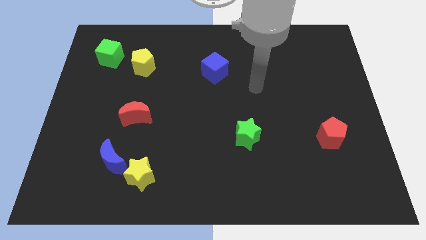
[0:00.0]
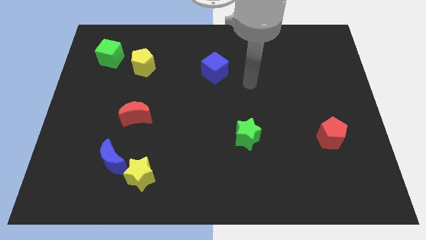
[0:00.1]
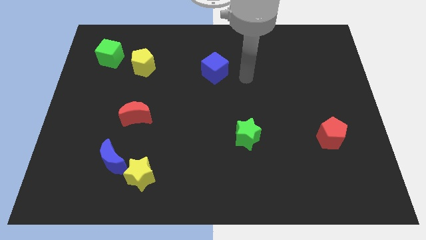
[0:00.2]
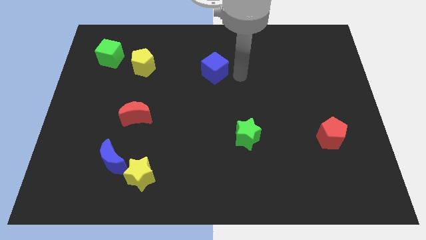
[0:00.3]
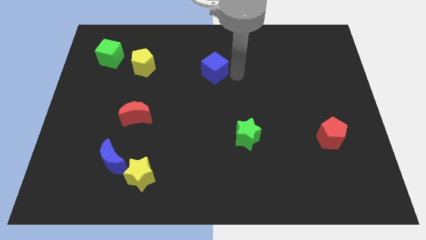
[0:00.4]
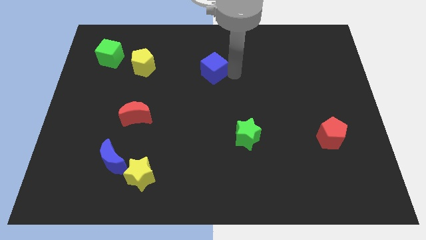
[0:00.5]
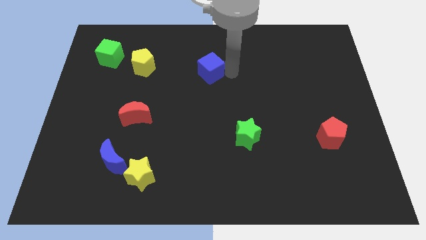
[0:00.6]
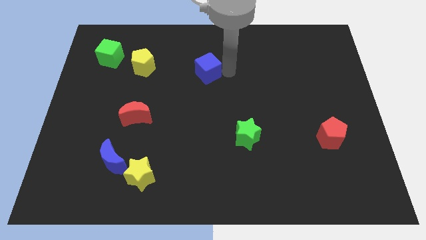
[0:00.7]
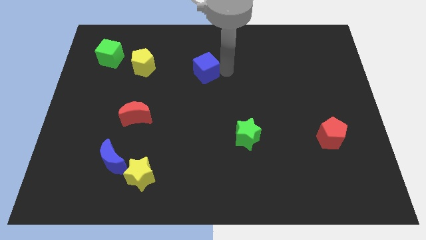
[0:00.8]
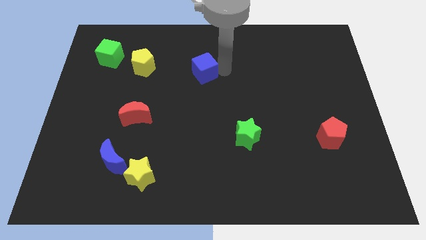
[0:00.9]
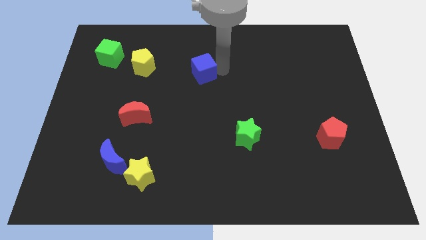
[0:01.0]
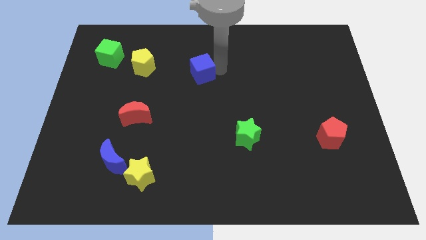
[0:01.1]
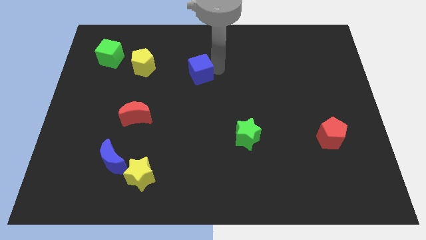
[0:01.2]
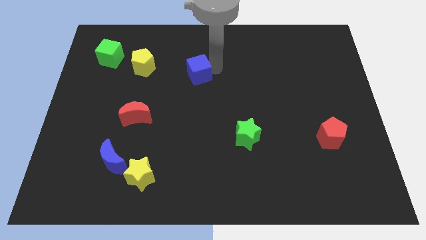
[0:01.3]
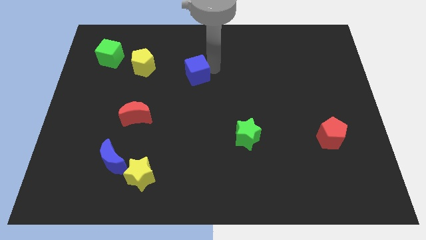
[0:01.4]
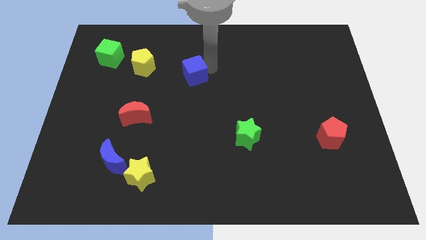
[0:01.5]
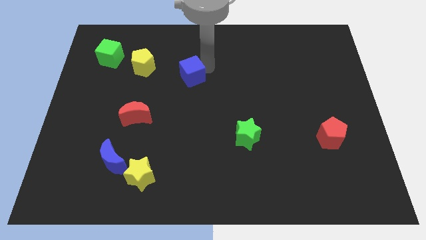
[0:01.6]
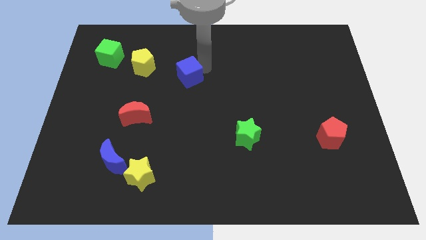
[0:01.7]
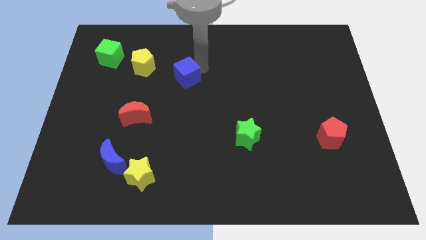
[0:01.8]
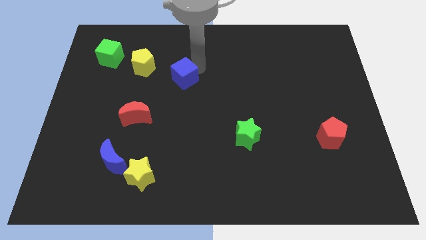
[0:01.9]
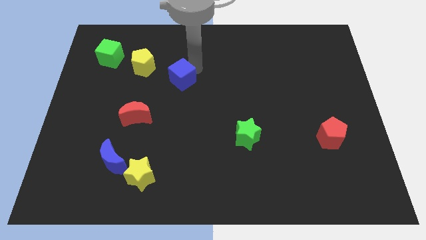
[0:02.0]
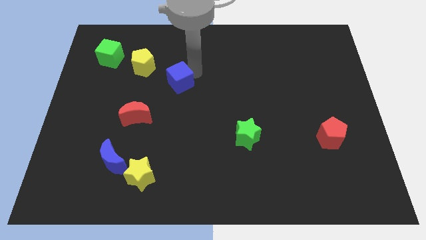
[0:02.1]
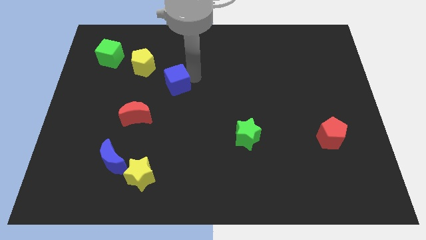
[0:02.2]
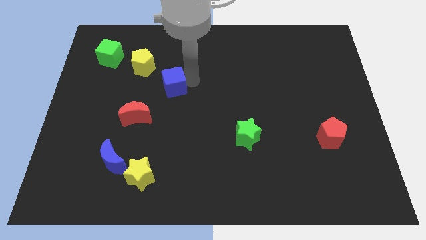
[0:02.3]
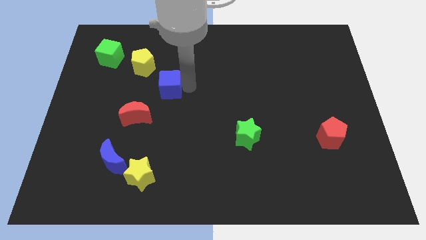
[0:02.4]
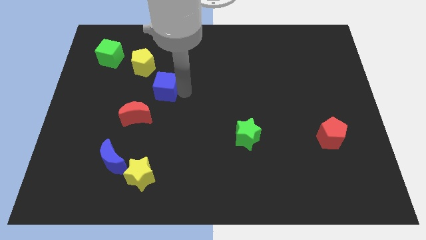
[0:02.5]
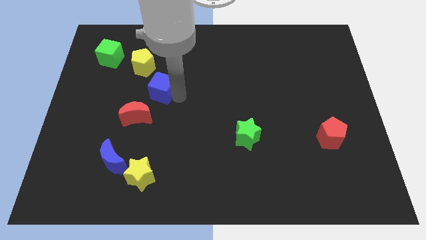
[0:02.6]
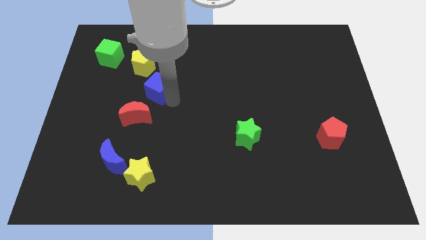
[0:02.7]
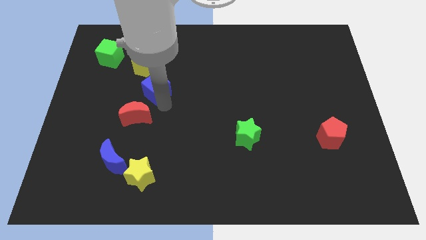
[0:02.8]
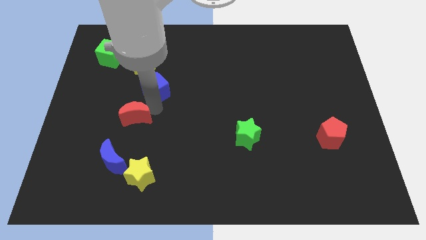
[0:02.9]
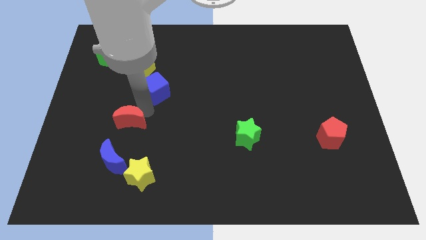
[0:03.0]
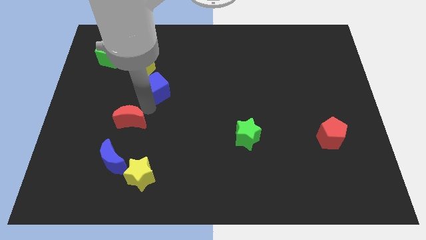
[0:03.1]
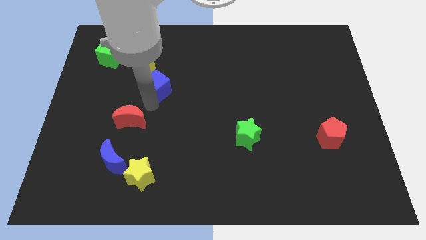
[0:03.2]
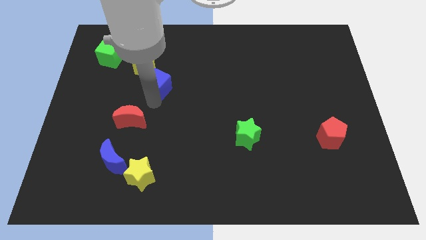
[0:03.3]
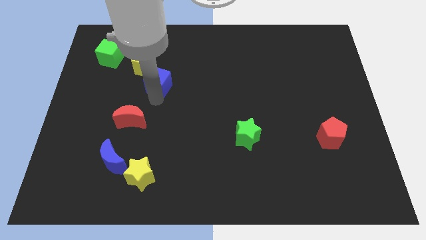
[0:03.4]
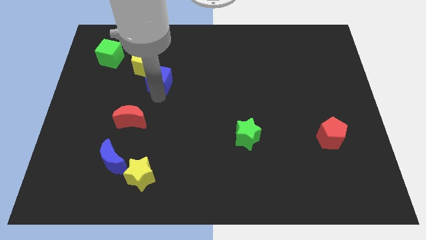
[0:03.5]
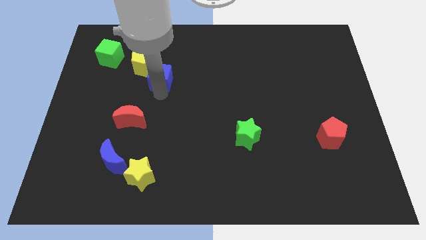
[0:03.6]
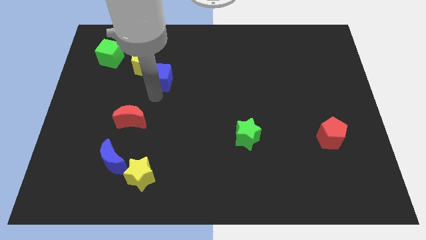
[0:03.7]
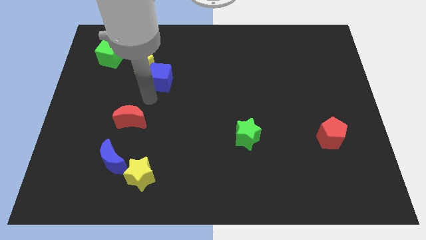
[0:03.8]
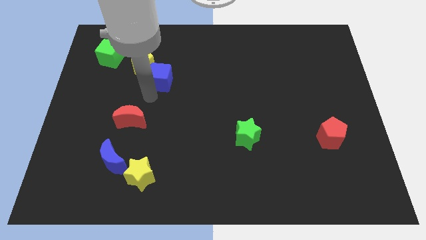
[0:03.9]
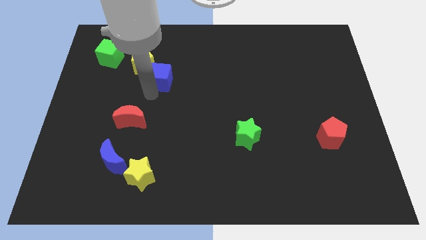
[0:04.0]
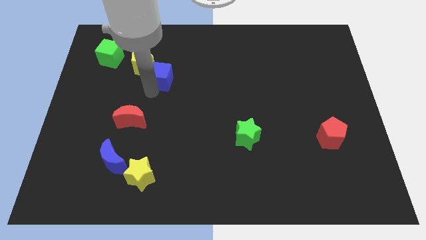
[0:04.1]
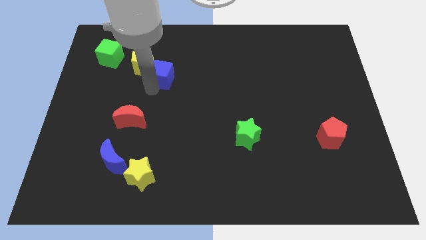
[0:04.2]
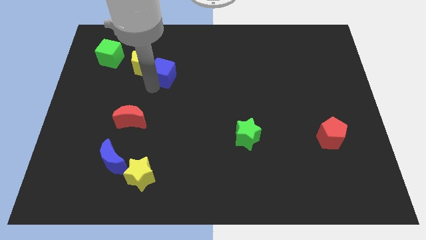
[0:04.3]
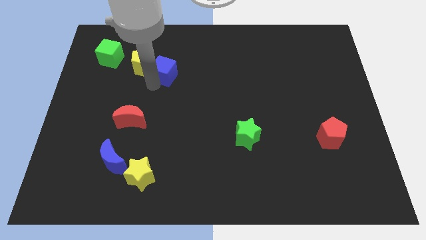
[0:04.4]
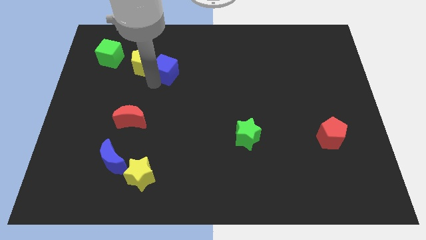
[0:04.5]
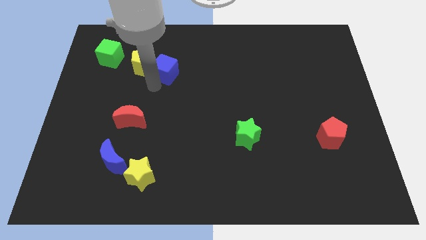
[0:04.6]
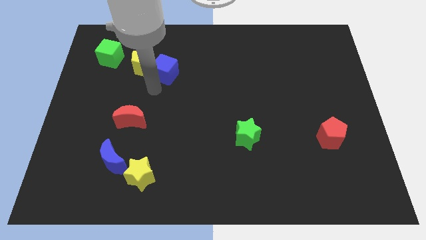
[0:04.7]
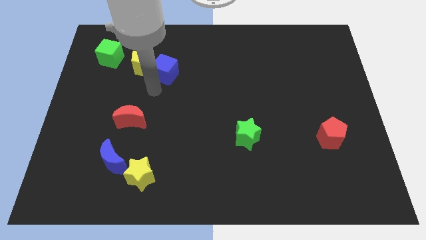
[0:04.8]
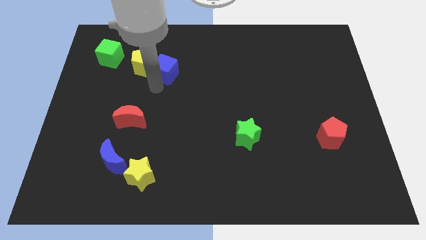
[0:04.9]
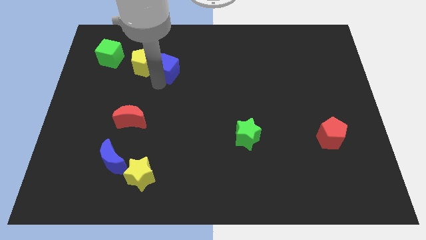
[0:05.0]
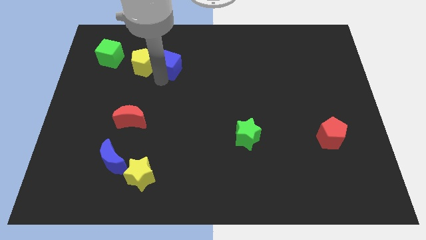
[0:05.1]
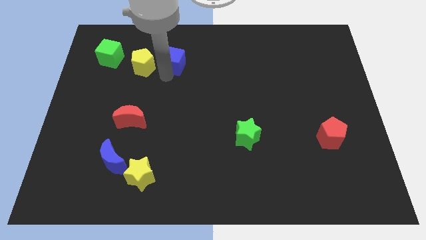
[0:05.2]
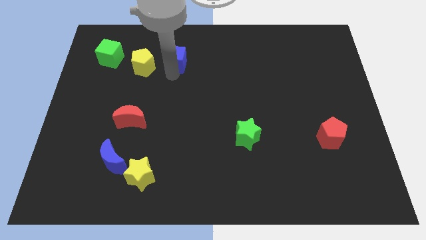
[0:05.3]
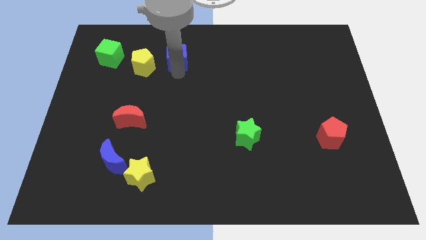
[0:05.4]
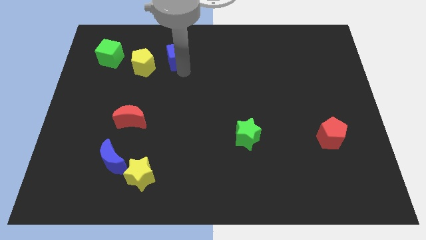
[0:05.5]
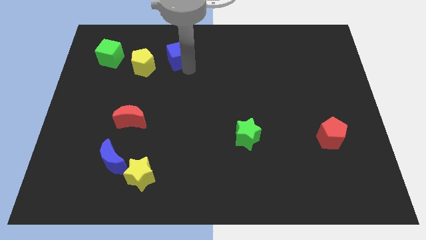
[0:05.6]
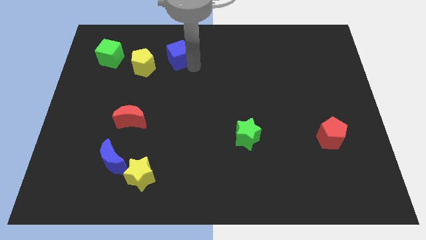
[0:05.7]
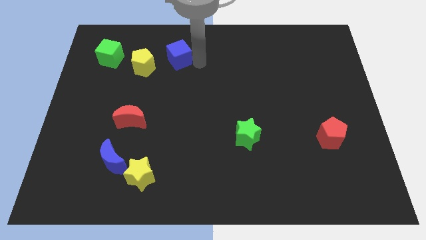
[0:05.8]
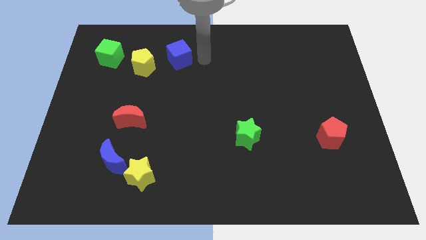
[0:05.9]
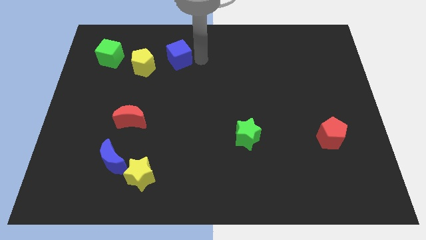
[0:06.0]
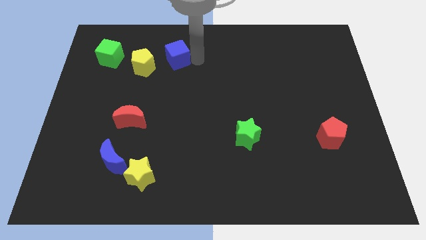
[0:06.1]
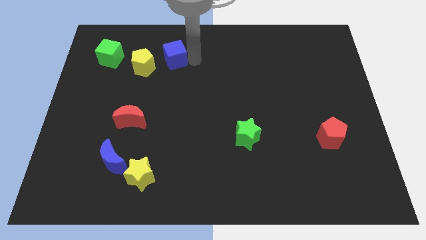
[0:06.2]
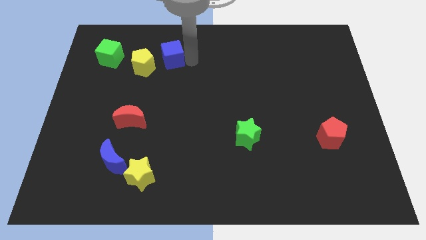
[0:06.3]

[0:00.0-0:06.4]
push the blue cube right of the green cube

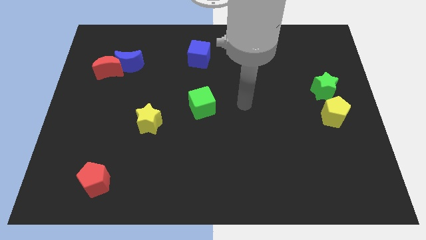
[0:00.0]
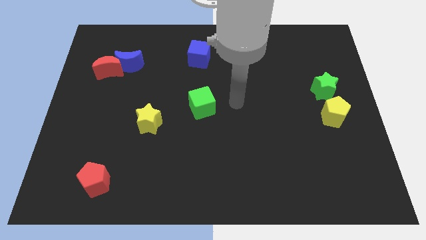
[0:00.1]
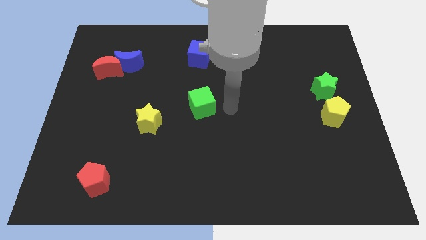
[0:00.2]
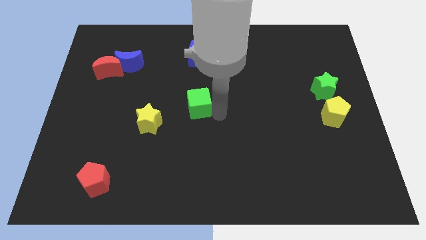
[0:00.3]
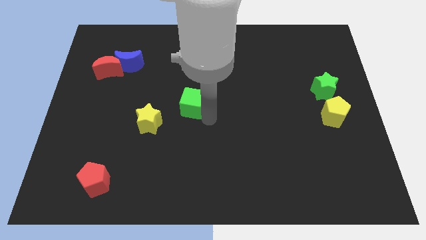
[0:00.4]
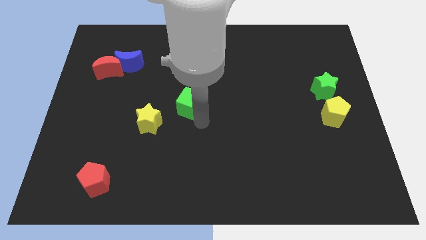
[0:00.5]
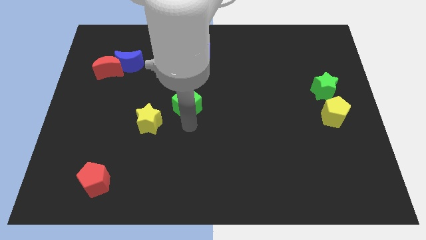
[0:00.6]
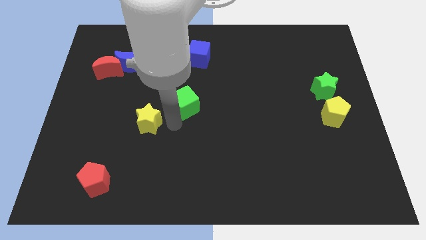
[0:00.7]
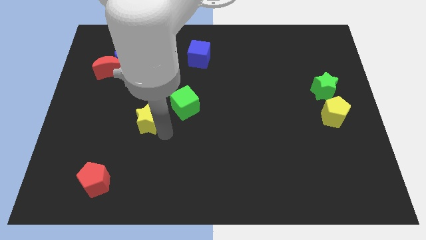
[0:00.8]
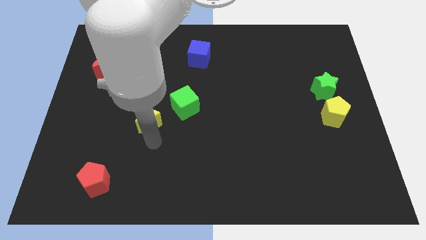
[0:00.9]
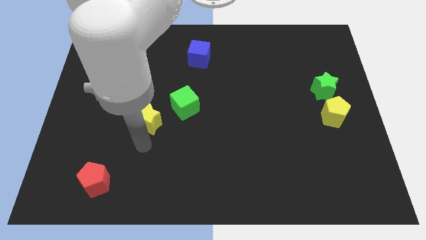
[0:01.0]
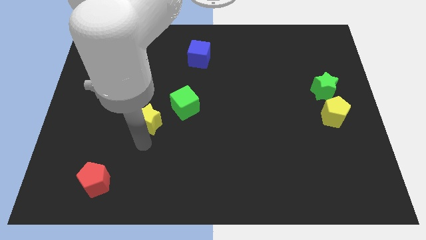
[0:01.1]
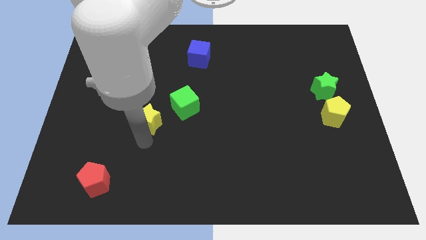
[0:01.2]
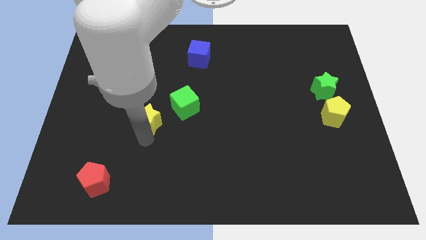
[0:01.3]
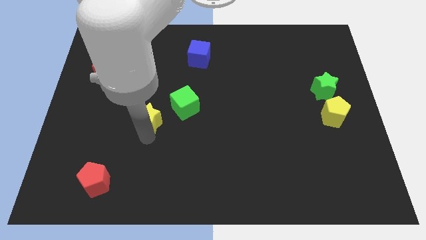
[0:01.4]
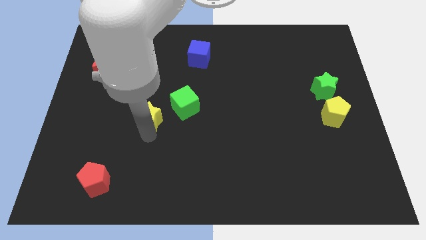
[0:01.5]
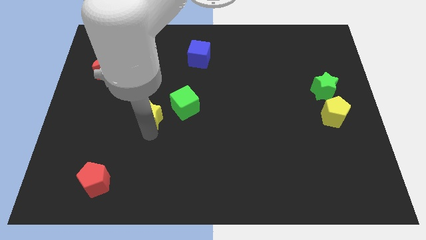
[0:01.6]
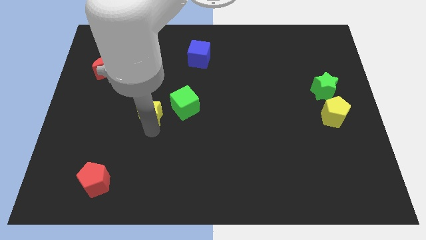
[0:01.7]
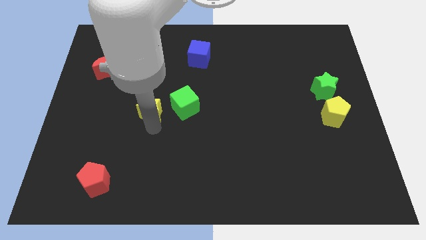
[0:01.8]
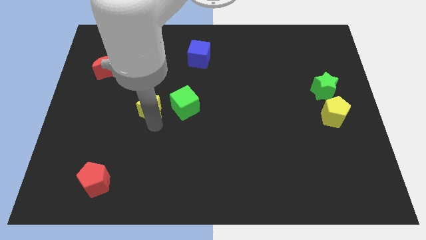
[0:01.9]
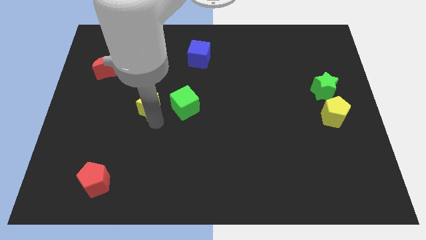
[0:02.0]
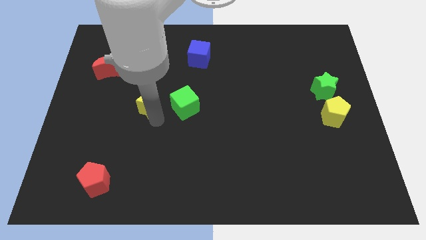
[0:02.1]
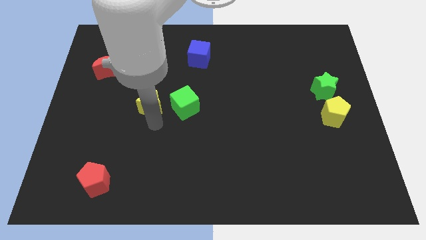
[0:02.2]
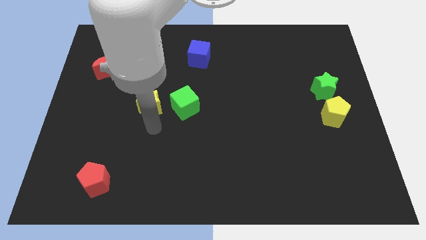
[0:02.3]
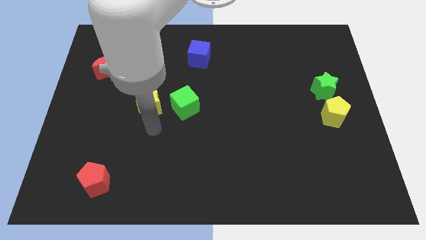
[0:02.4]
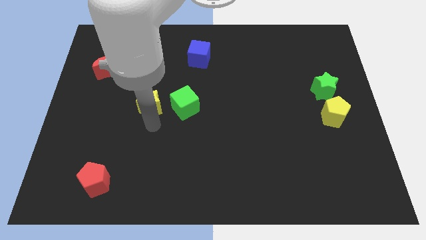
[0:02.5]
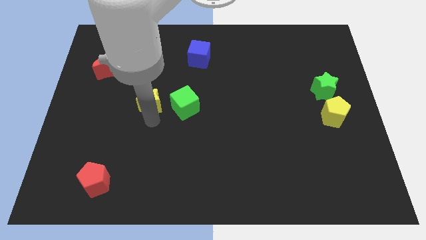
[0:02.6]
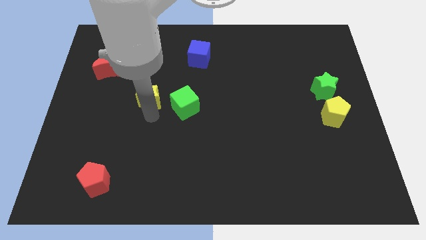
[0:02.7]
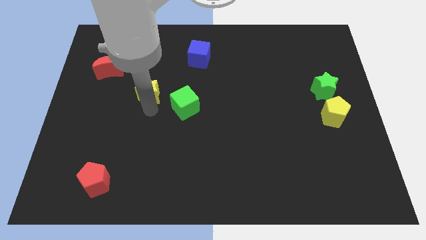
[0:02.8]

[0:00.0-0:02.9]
slide the yellow star diagonally down and to the right of the blue moon
